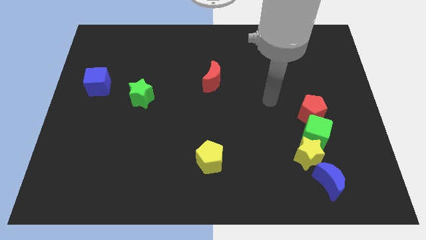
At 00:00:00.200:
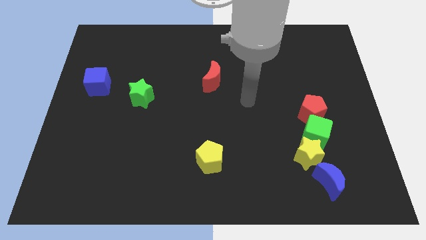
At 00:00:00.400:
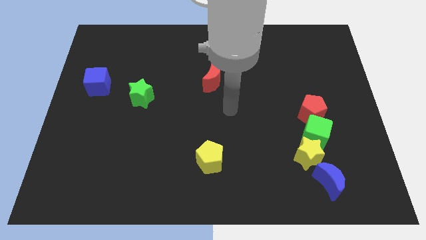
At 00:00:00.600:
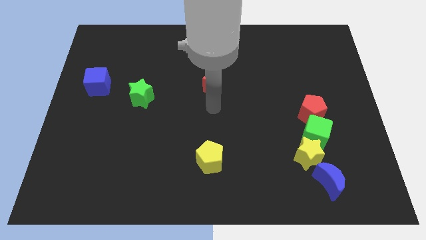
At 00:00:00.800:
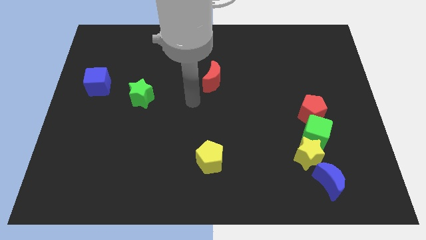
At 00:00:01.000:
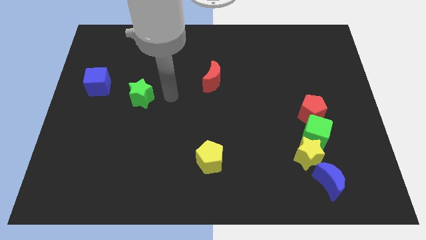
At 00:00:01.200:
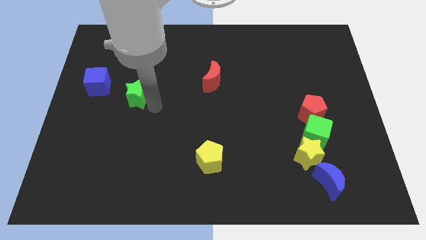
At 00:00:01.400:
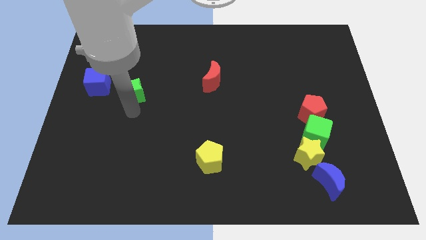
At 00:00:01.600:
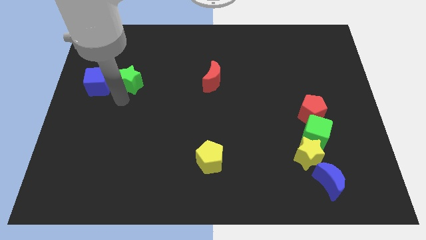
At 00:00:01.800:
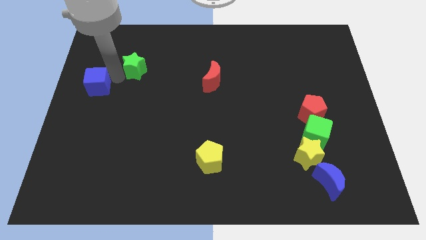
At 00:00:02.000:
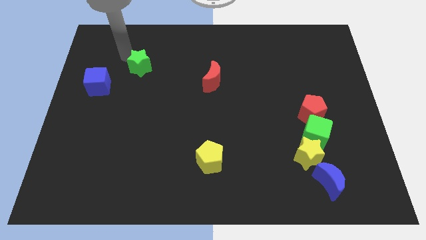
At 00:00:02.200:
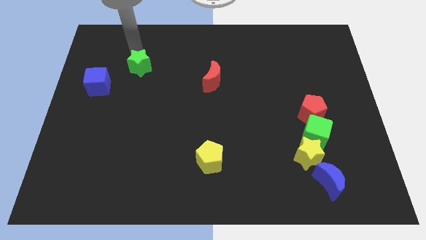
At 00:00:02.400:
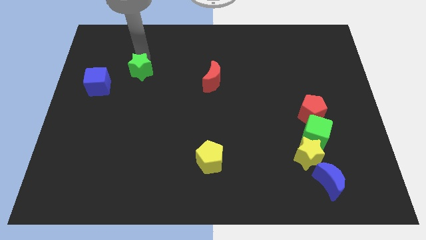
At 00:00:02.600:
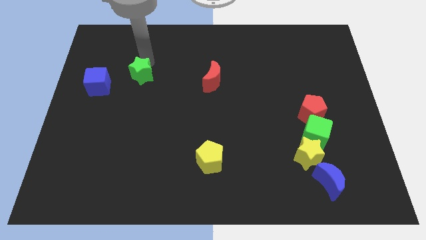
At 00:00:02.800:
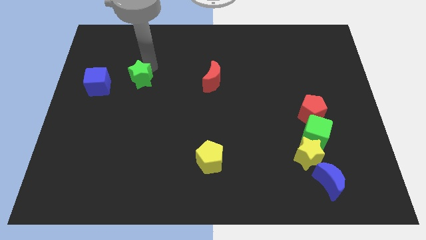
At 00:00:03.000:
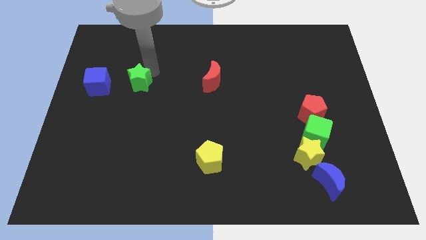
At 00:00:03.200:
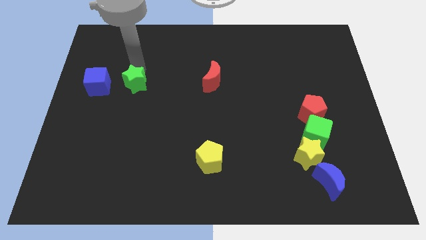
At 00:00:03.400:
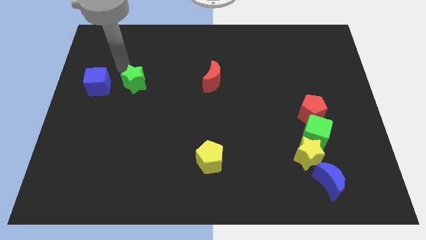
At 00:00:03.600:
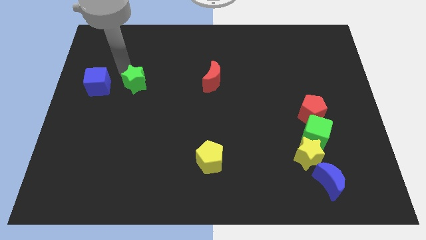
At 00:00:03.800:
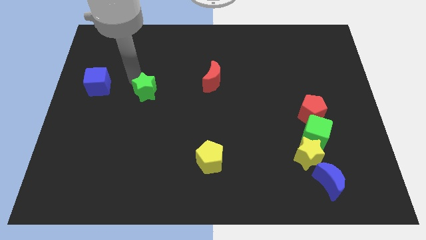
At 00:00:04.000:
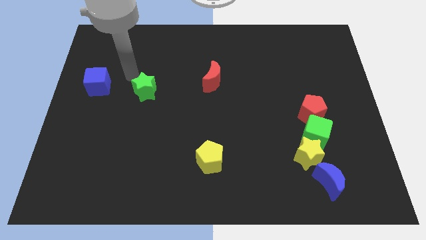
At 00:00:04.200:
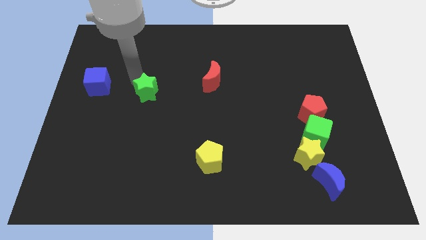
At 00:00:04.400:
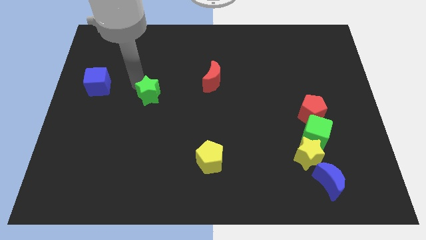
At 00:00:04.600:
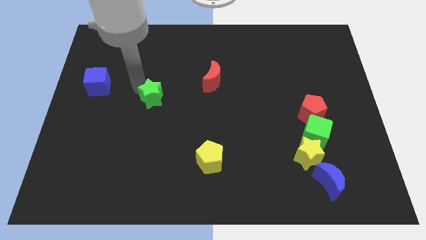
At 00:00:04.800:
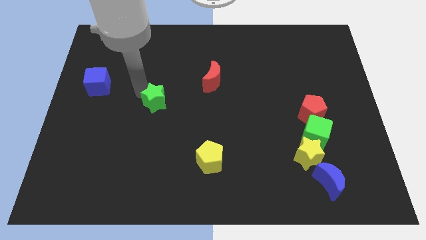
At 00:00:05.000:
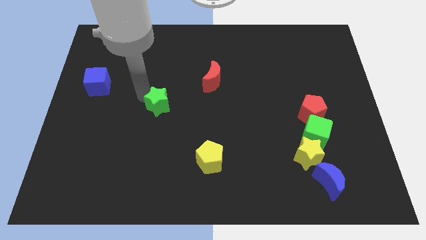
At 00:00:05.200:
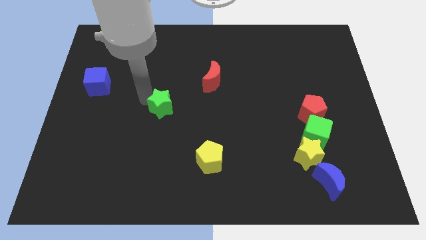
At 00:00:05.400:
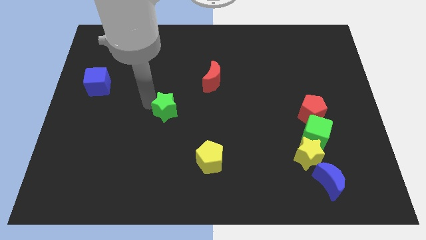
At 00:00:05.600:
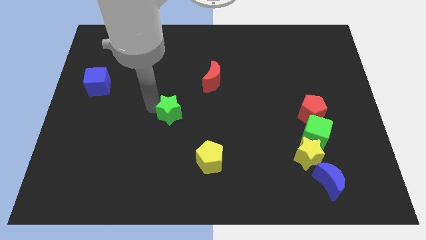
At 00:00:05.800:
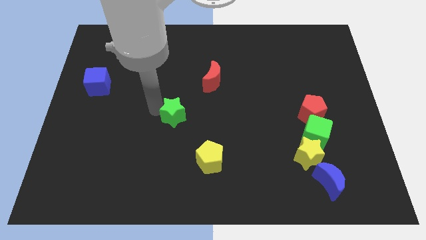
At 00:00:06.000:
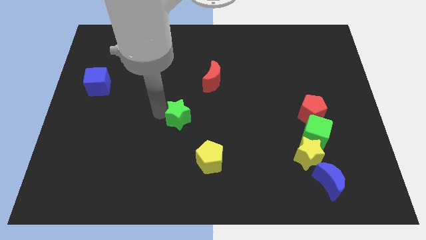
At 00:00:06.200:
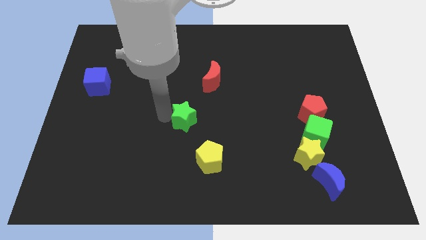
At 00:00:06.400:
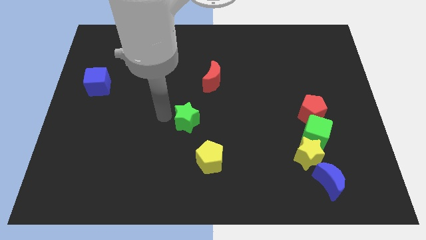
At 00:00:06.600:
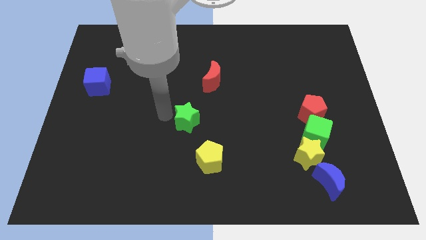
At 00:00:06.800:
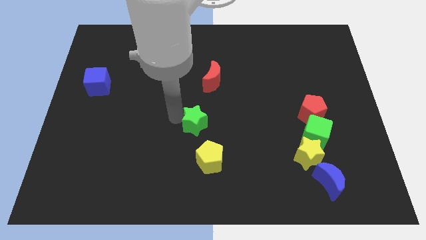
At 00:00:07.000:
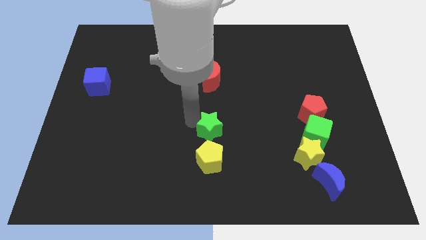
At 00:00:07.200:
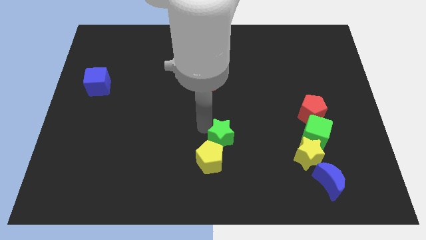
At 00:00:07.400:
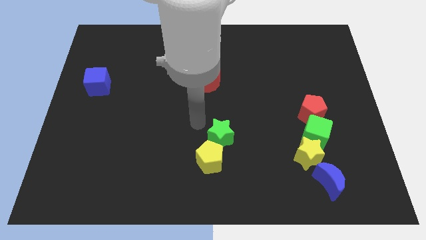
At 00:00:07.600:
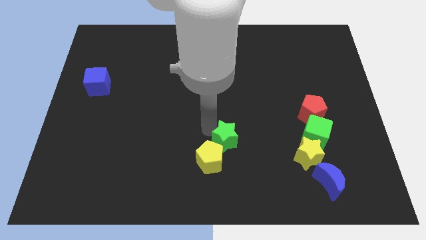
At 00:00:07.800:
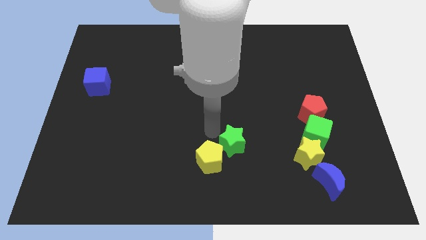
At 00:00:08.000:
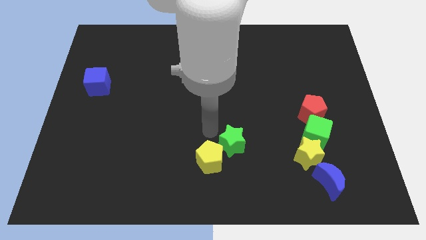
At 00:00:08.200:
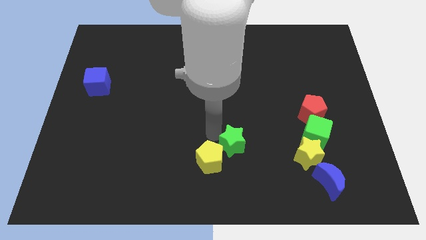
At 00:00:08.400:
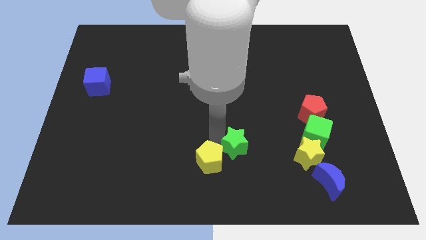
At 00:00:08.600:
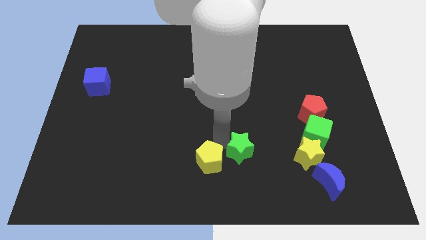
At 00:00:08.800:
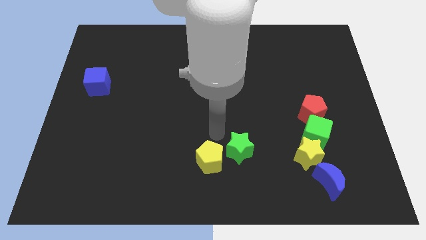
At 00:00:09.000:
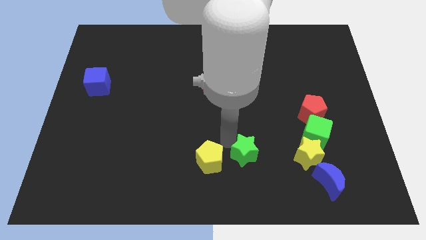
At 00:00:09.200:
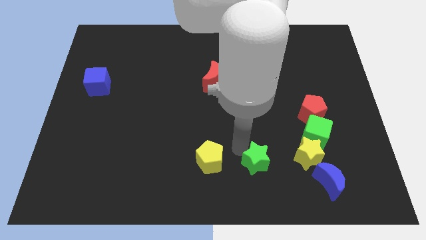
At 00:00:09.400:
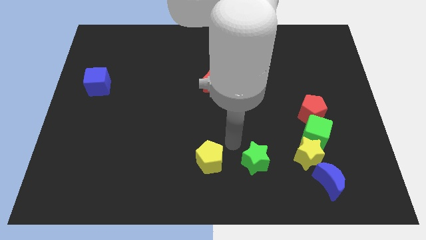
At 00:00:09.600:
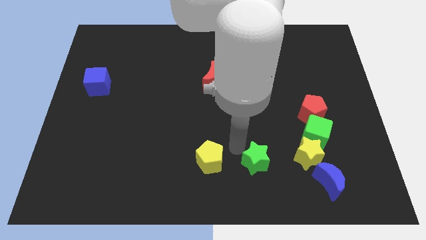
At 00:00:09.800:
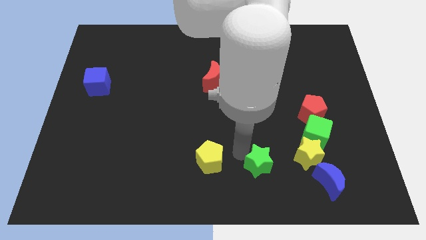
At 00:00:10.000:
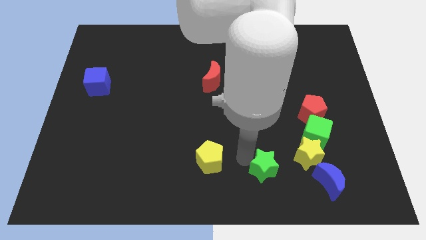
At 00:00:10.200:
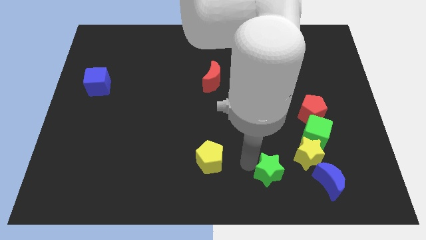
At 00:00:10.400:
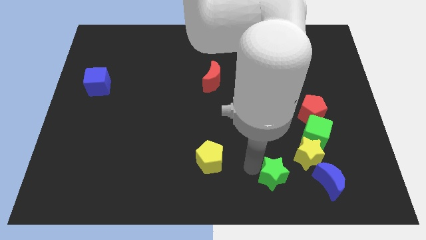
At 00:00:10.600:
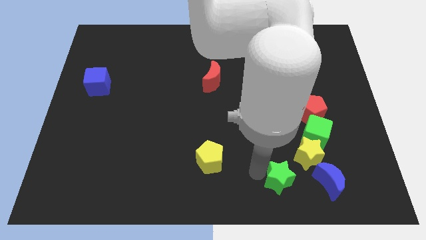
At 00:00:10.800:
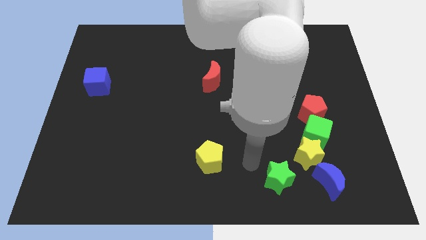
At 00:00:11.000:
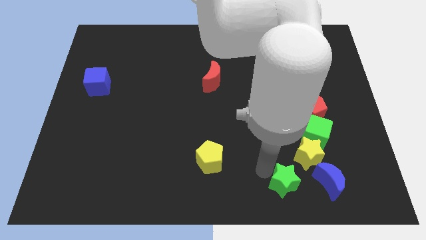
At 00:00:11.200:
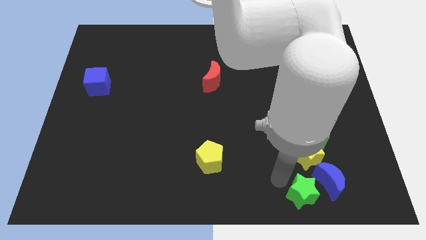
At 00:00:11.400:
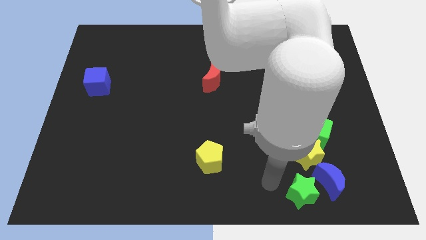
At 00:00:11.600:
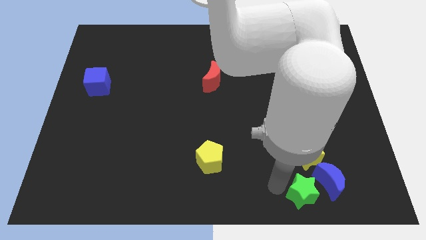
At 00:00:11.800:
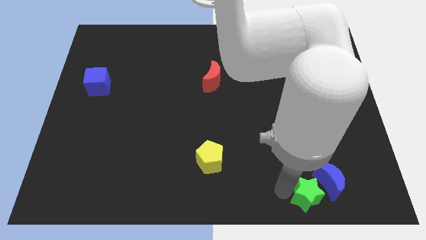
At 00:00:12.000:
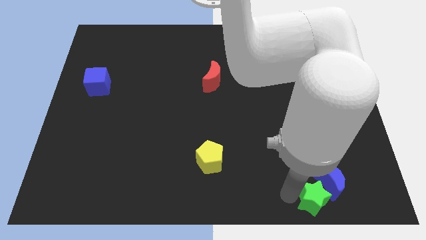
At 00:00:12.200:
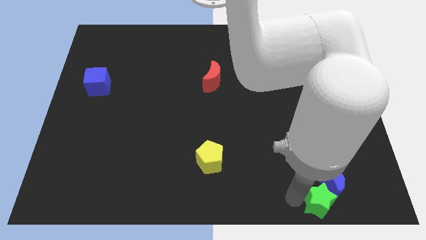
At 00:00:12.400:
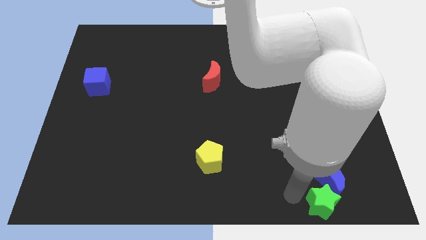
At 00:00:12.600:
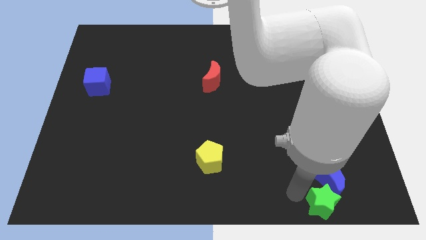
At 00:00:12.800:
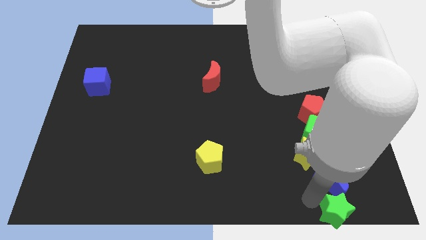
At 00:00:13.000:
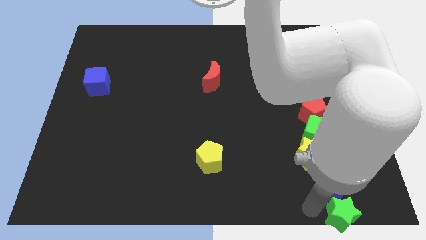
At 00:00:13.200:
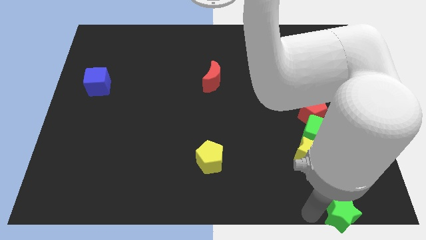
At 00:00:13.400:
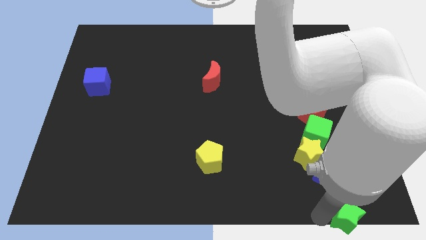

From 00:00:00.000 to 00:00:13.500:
put the green star to the lower right corner
